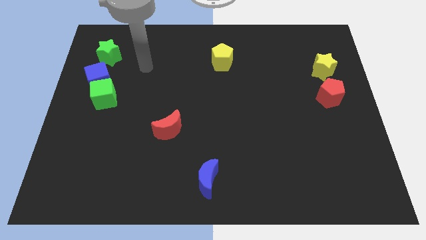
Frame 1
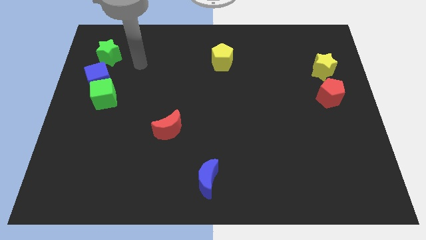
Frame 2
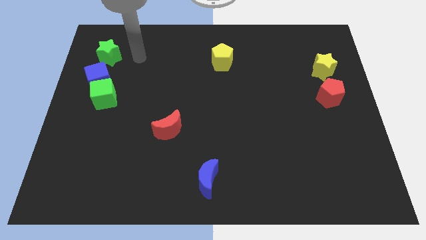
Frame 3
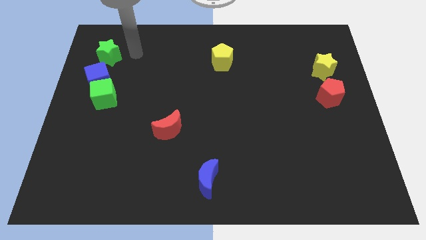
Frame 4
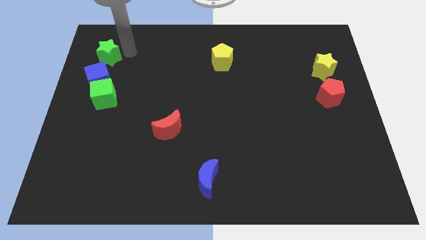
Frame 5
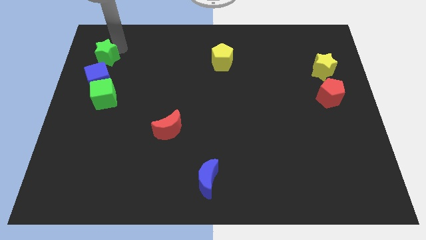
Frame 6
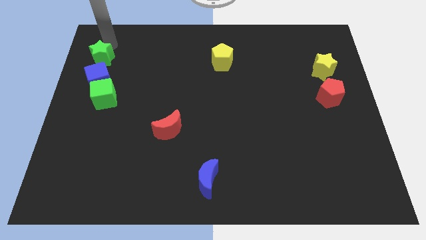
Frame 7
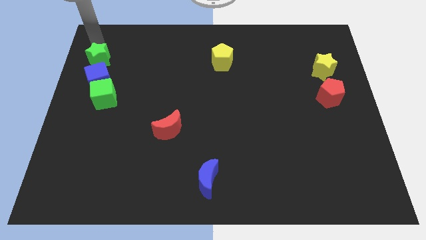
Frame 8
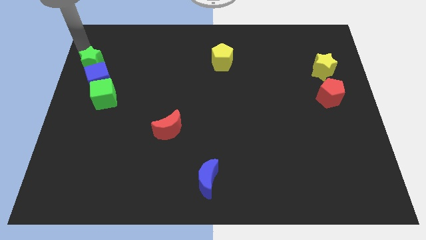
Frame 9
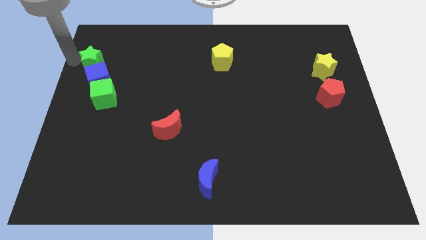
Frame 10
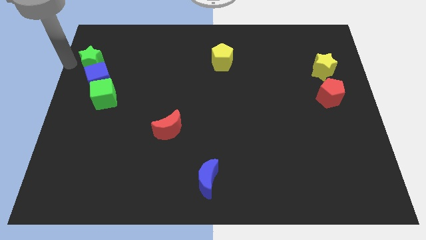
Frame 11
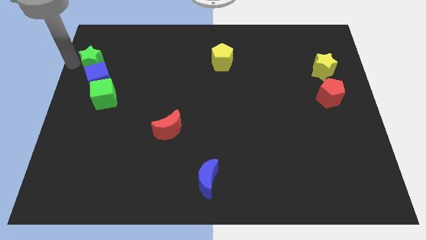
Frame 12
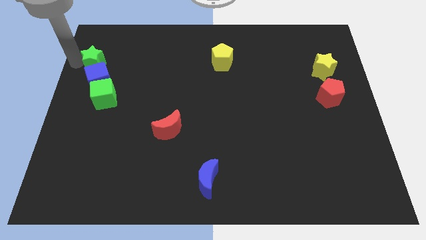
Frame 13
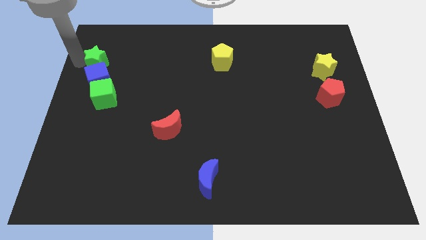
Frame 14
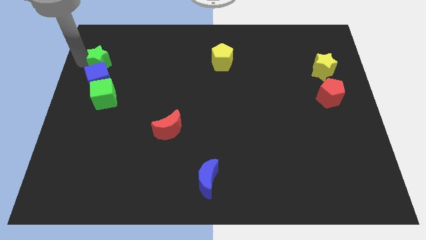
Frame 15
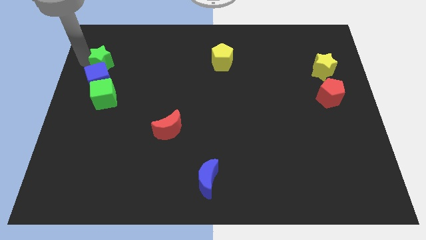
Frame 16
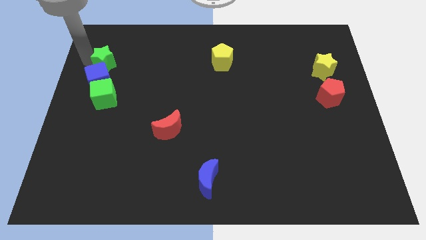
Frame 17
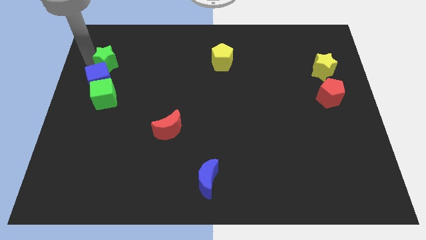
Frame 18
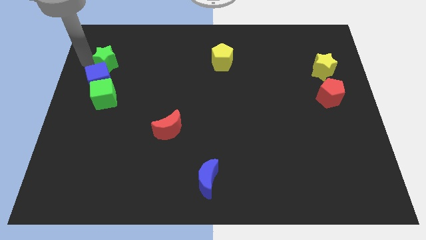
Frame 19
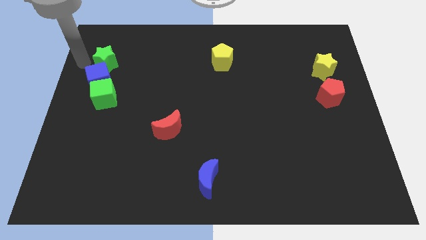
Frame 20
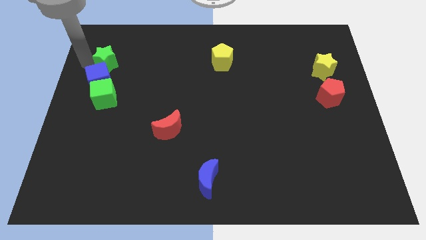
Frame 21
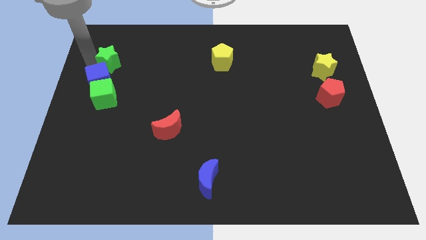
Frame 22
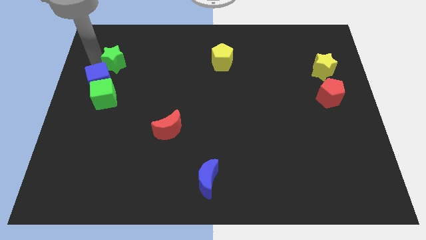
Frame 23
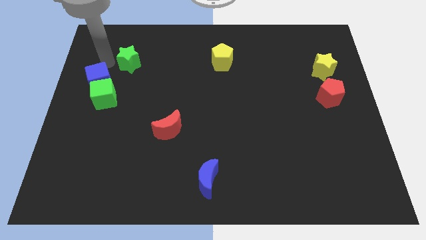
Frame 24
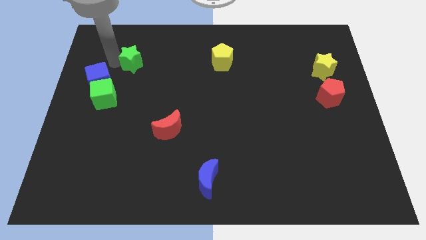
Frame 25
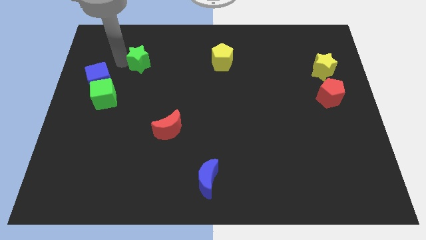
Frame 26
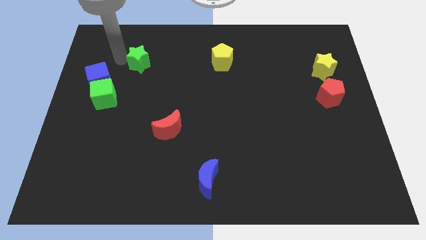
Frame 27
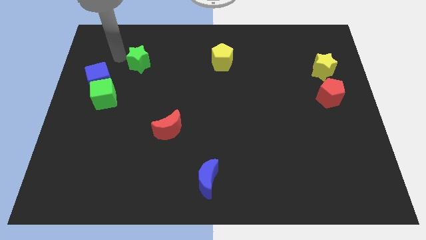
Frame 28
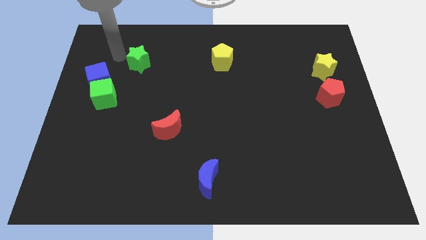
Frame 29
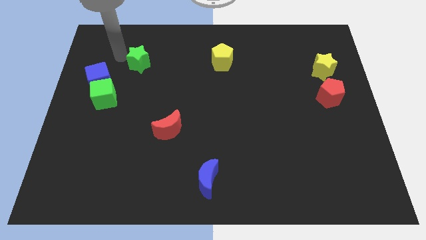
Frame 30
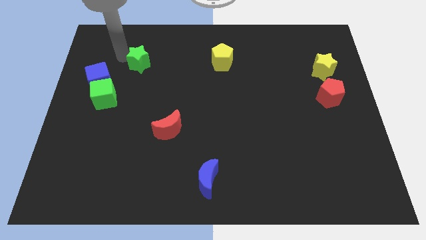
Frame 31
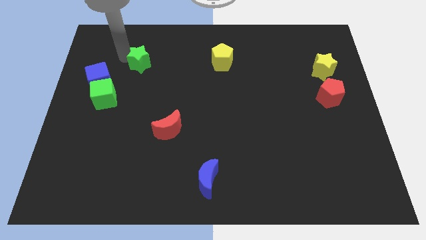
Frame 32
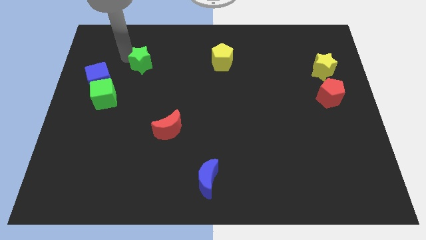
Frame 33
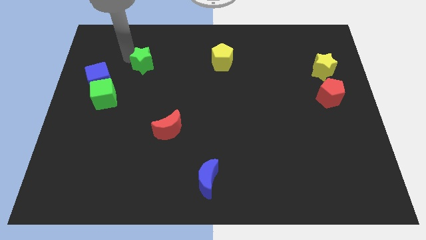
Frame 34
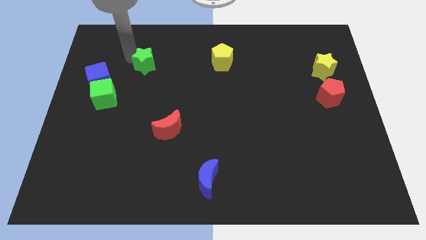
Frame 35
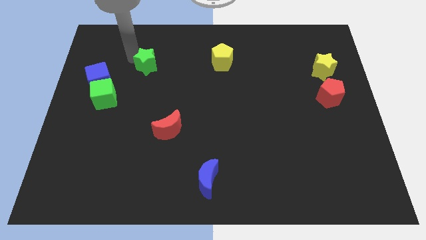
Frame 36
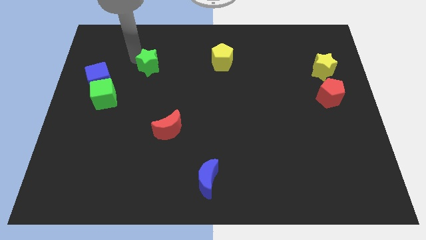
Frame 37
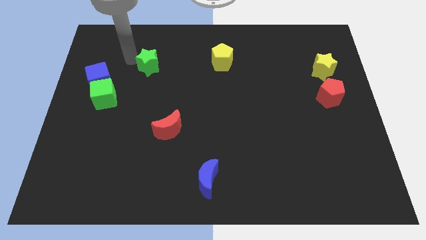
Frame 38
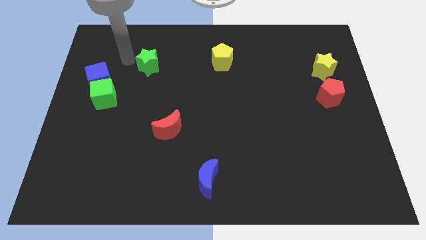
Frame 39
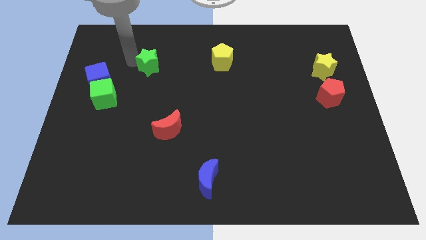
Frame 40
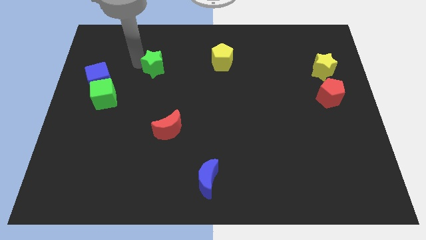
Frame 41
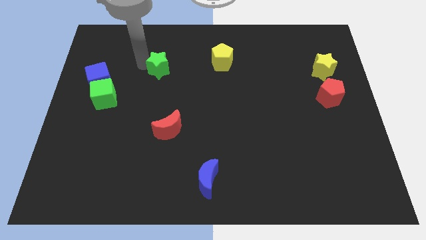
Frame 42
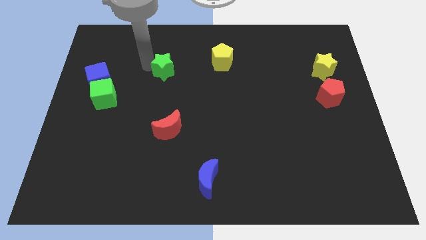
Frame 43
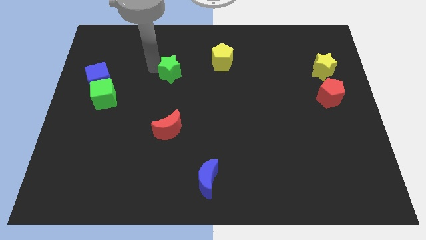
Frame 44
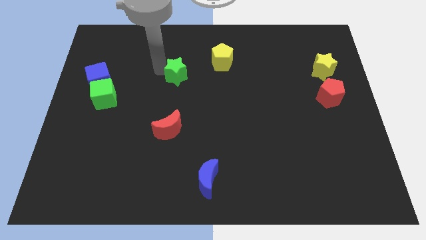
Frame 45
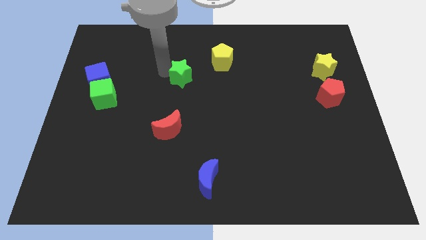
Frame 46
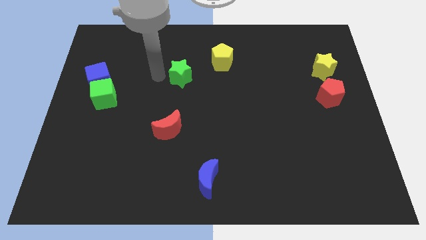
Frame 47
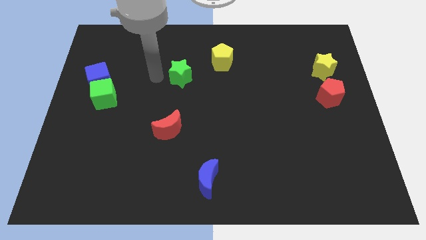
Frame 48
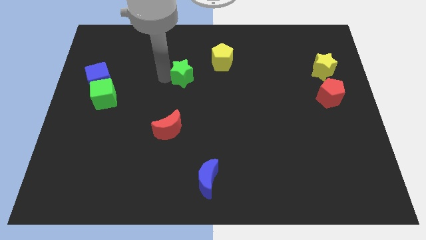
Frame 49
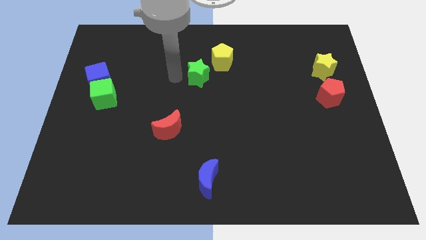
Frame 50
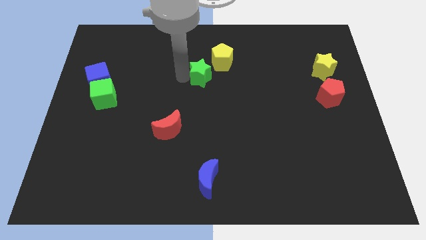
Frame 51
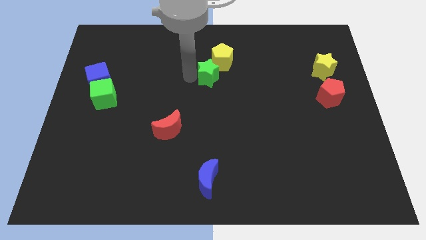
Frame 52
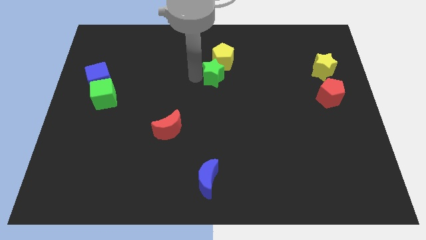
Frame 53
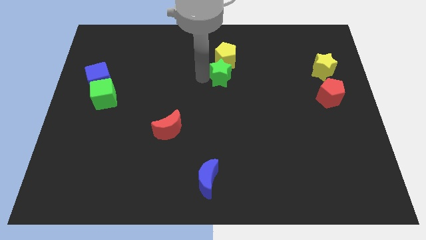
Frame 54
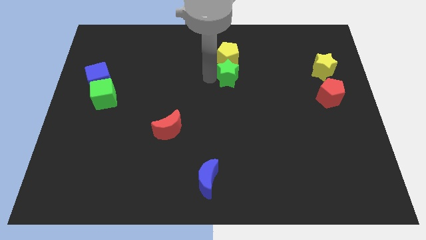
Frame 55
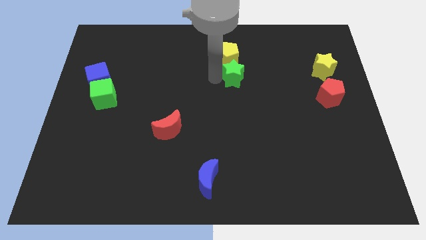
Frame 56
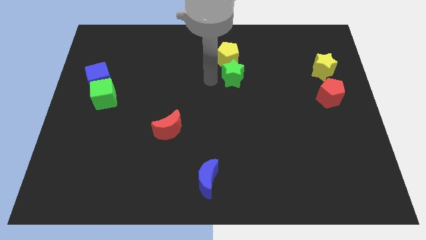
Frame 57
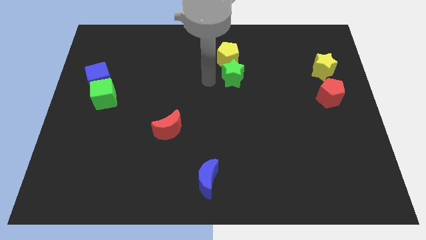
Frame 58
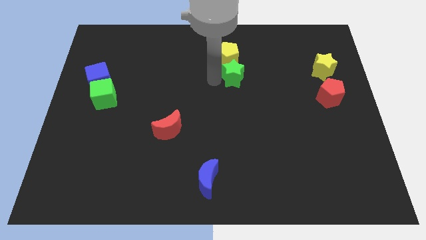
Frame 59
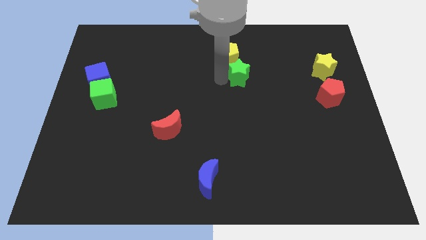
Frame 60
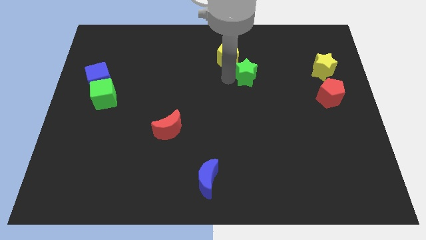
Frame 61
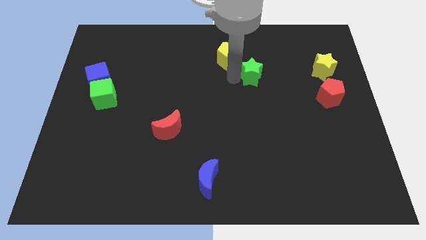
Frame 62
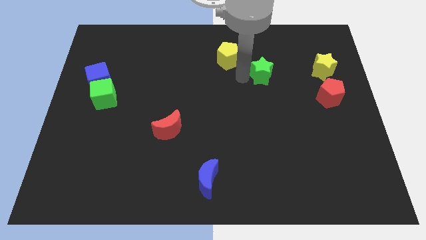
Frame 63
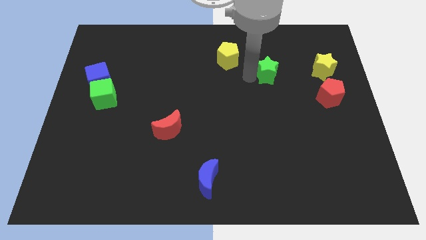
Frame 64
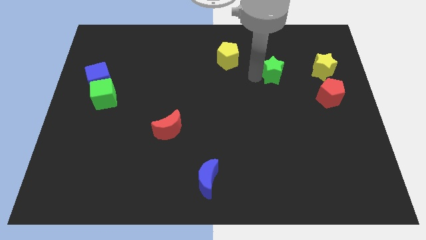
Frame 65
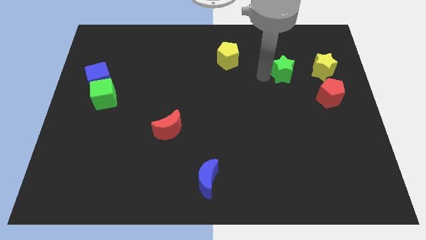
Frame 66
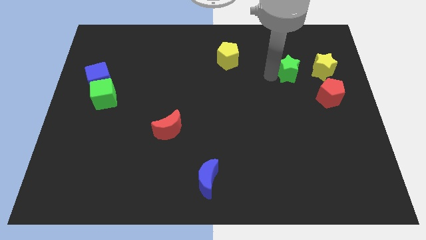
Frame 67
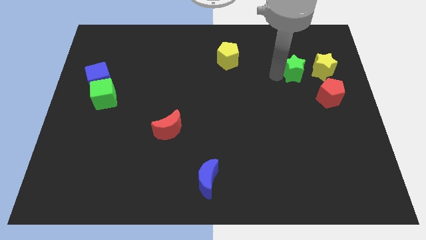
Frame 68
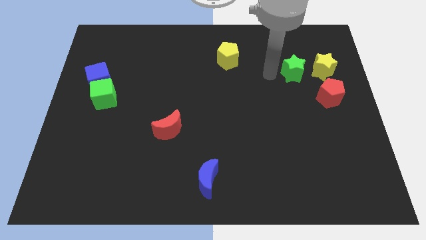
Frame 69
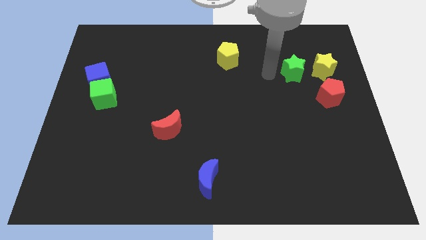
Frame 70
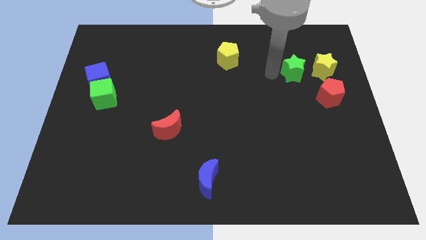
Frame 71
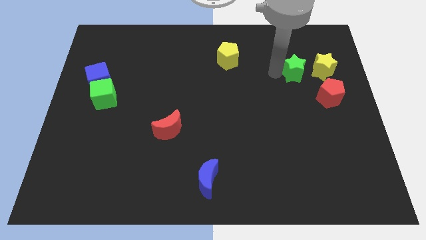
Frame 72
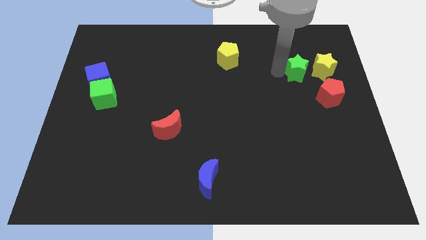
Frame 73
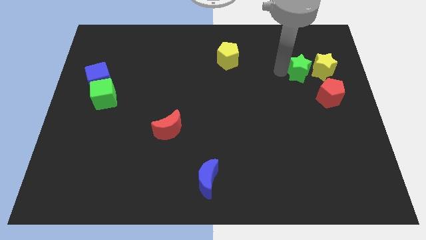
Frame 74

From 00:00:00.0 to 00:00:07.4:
move the green star next to the yellow star

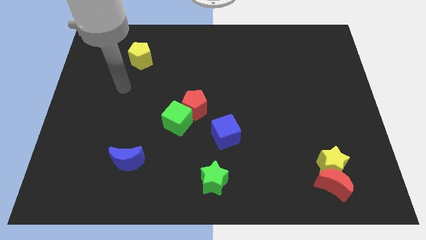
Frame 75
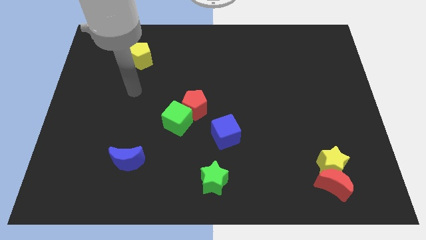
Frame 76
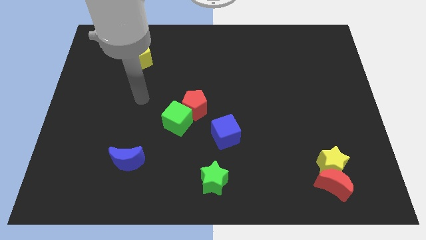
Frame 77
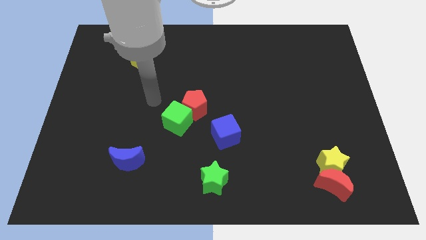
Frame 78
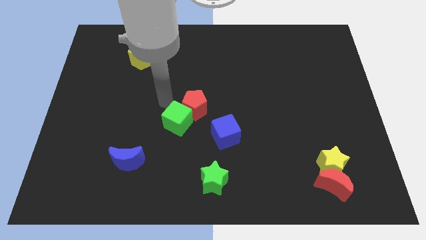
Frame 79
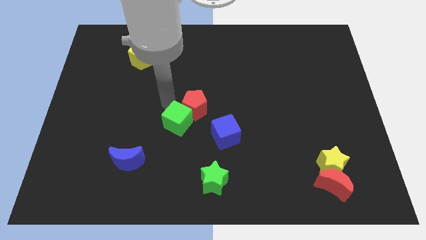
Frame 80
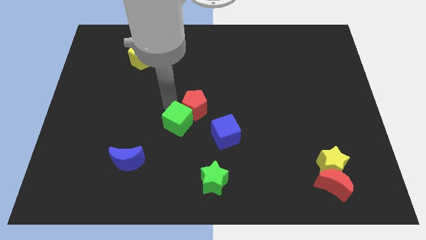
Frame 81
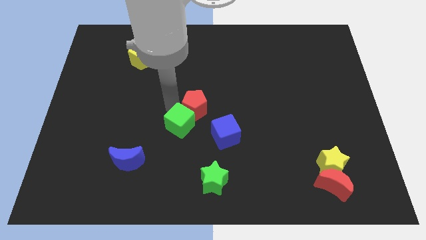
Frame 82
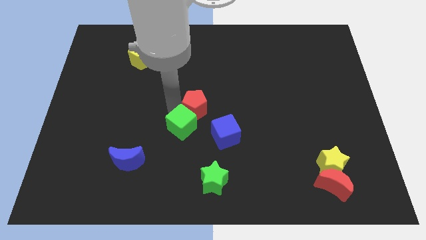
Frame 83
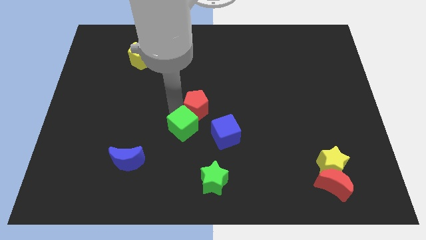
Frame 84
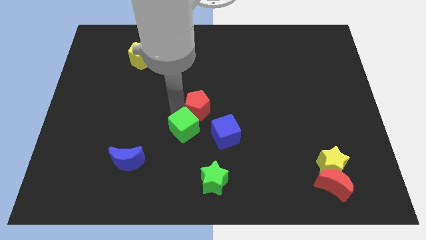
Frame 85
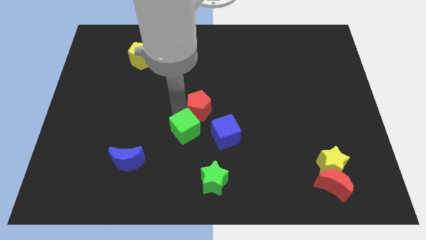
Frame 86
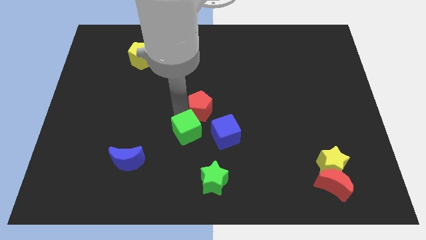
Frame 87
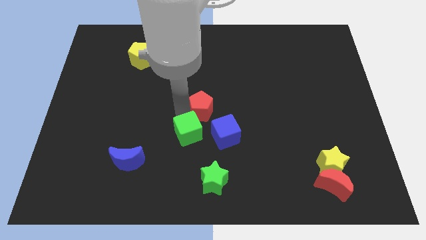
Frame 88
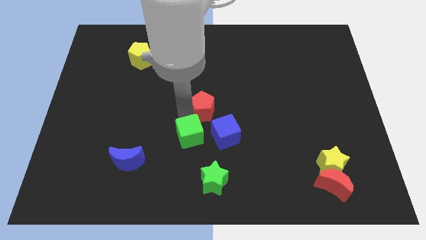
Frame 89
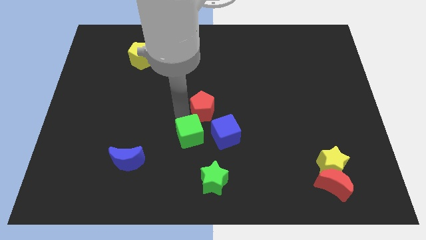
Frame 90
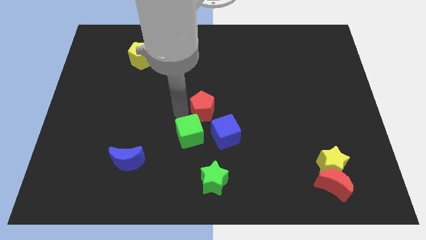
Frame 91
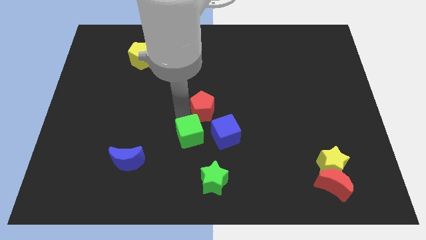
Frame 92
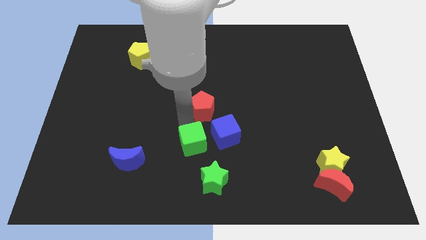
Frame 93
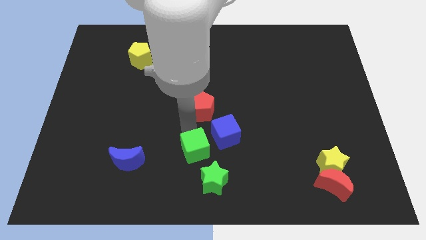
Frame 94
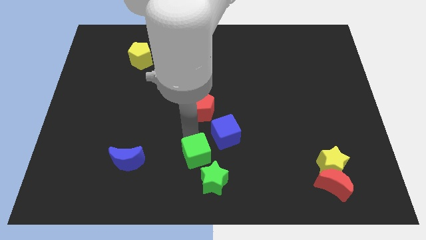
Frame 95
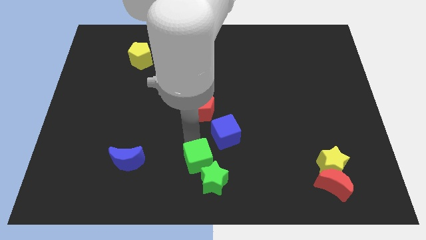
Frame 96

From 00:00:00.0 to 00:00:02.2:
push the green cube close to the green star
